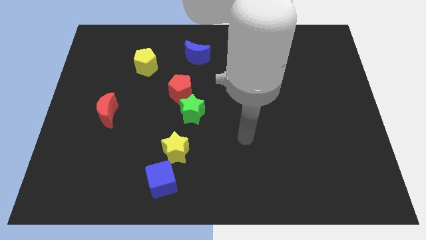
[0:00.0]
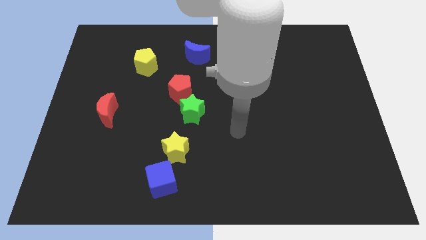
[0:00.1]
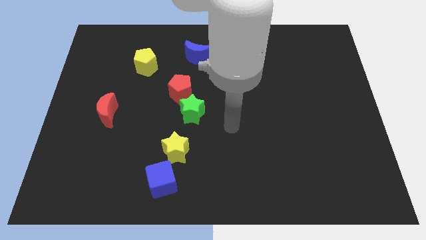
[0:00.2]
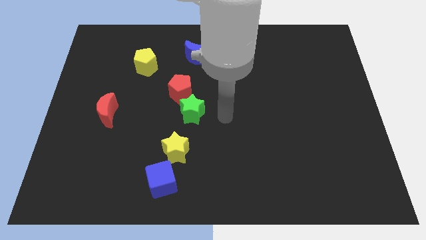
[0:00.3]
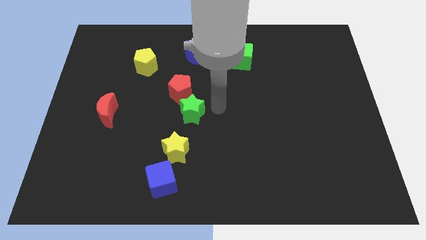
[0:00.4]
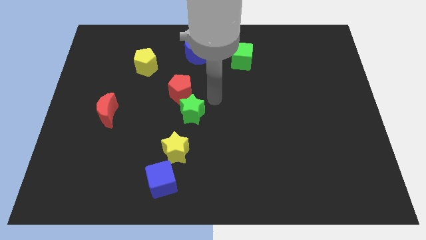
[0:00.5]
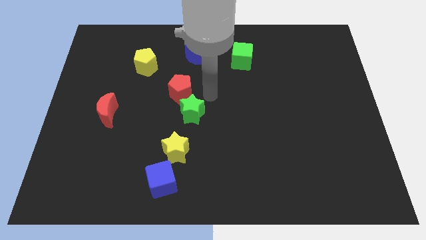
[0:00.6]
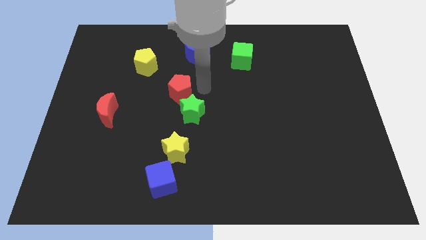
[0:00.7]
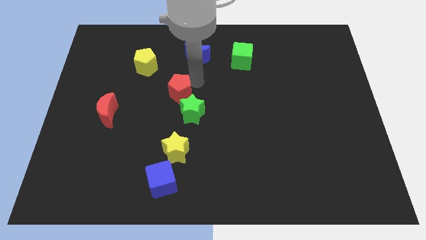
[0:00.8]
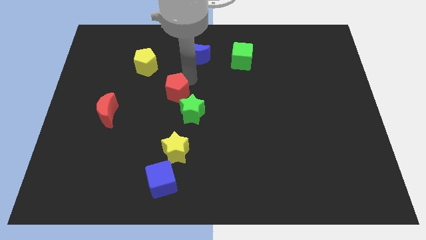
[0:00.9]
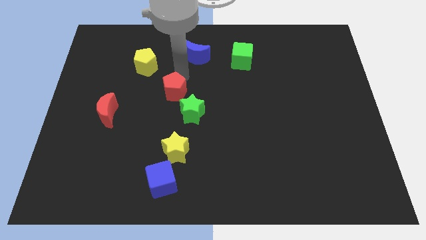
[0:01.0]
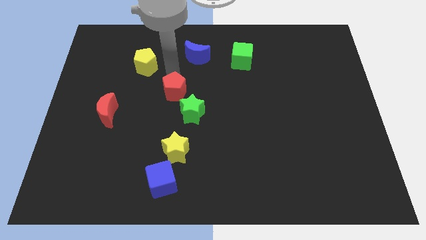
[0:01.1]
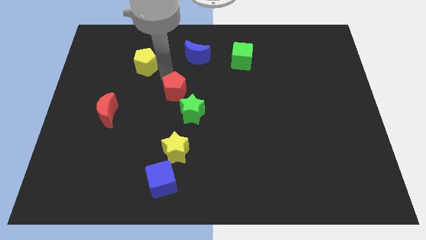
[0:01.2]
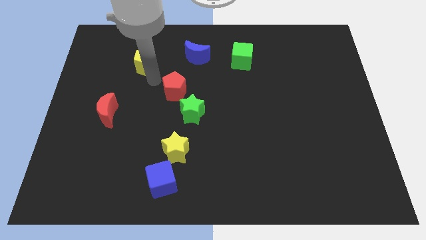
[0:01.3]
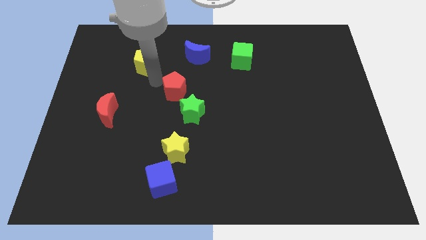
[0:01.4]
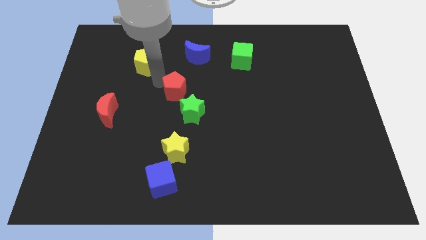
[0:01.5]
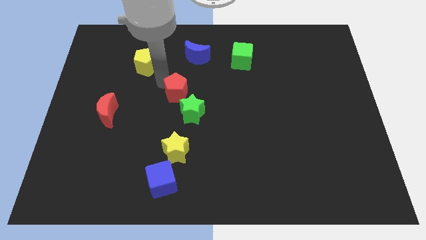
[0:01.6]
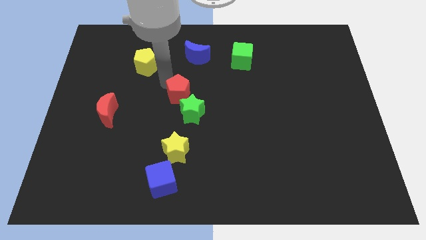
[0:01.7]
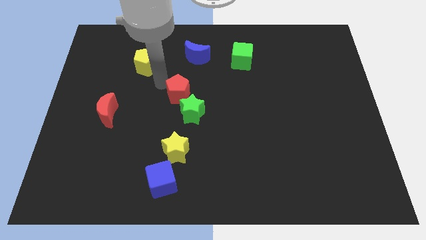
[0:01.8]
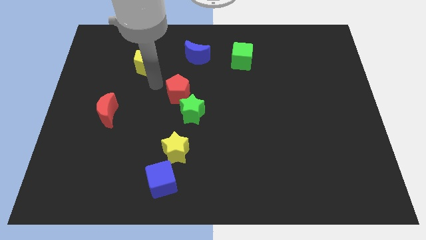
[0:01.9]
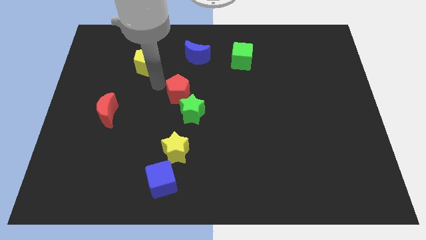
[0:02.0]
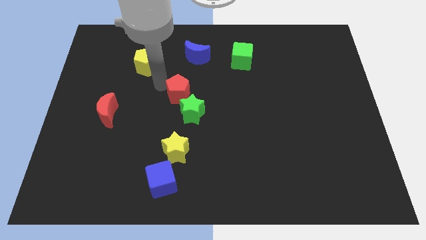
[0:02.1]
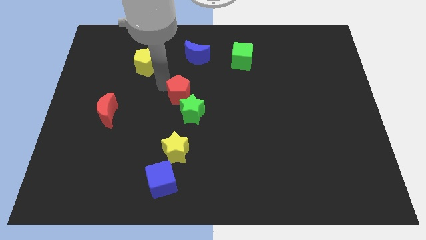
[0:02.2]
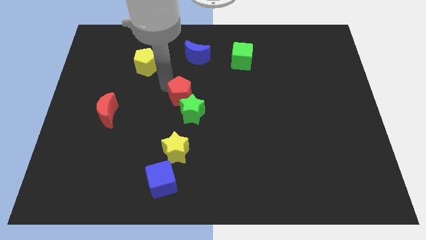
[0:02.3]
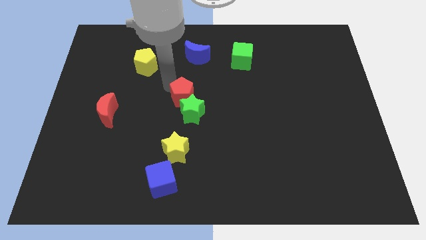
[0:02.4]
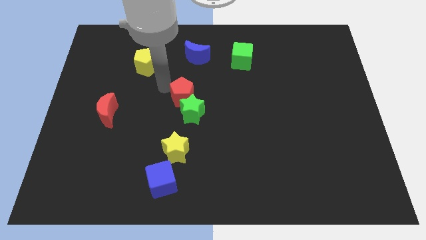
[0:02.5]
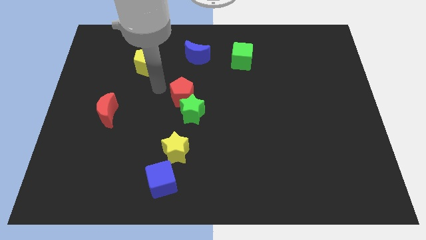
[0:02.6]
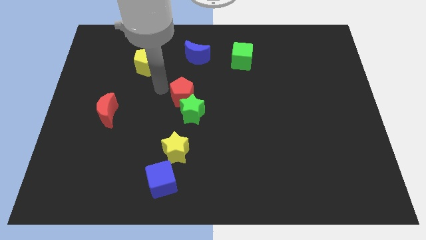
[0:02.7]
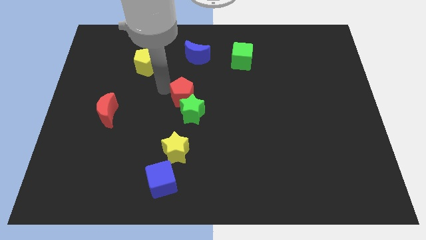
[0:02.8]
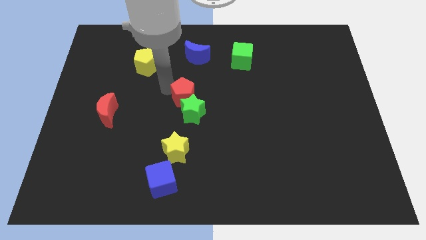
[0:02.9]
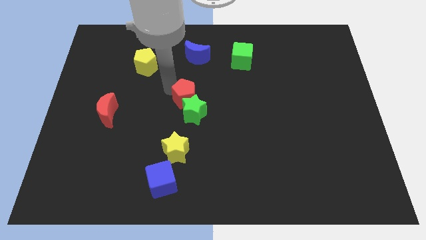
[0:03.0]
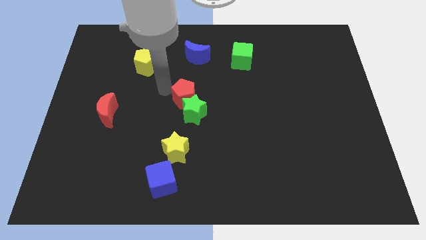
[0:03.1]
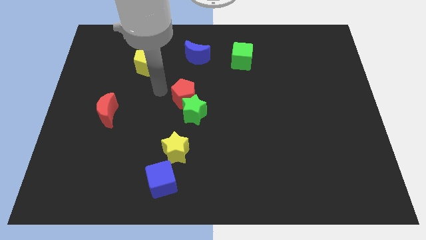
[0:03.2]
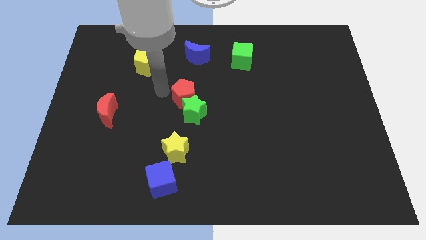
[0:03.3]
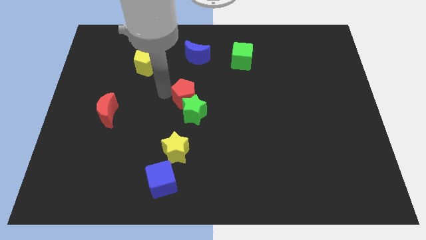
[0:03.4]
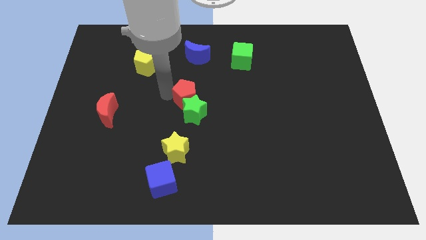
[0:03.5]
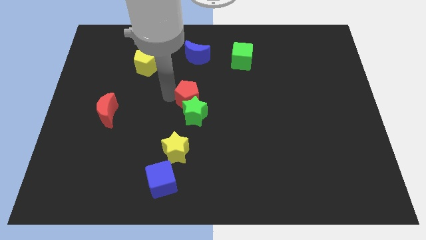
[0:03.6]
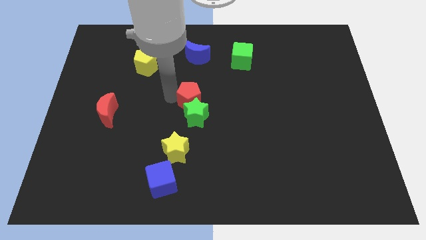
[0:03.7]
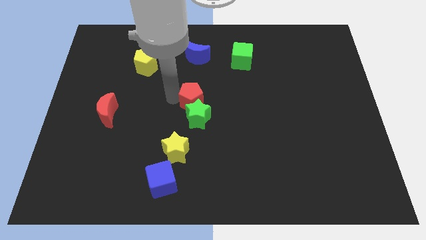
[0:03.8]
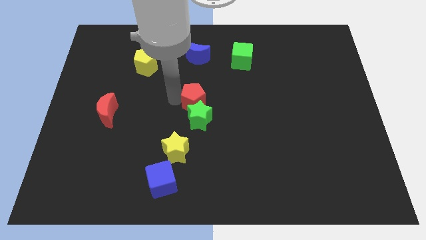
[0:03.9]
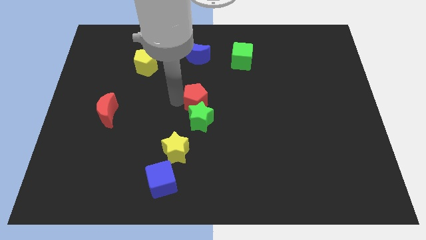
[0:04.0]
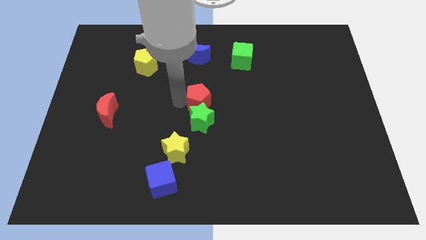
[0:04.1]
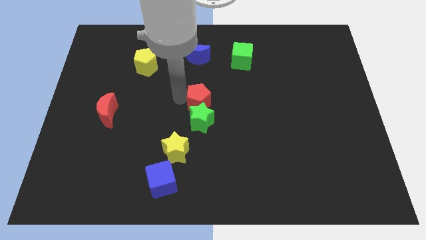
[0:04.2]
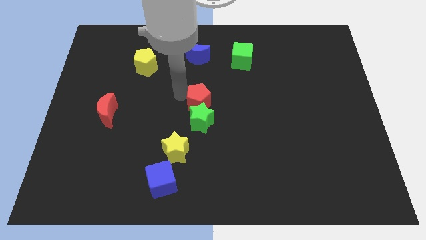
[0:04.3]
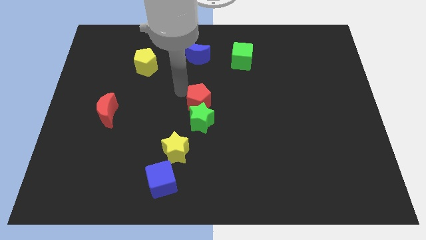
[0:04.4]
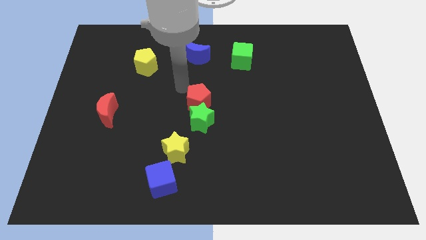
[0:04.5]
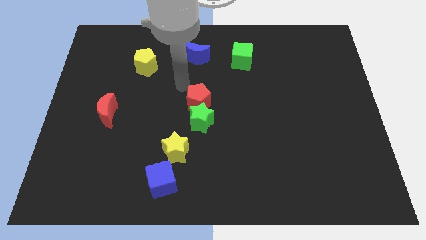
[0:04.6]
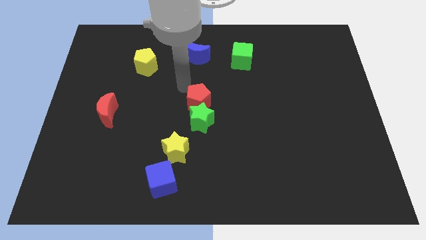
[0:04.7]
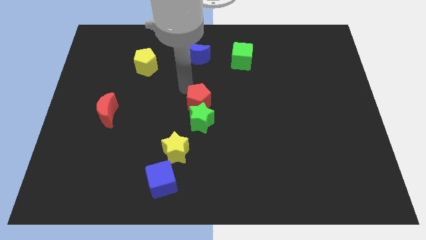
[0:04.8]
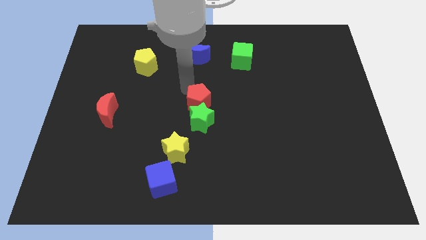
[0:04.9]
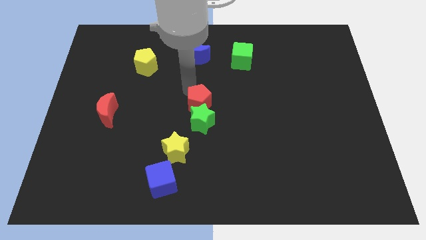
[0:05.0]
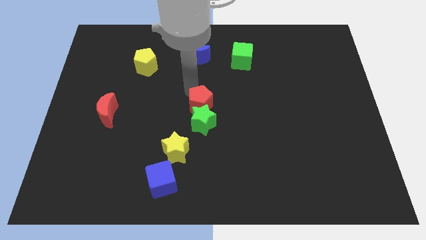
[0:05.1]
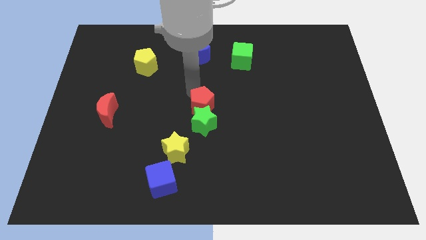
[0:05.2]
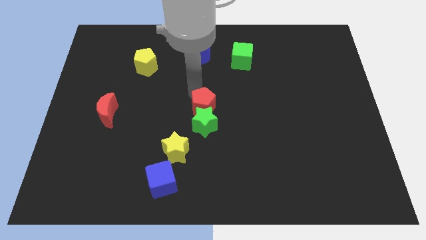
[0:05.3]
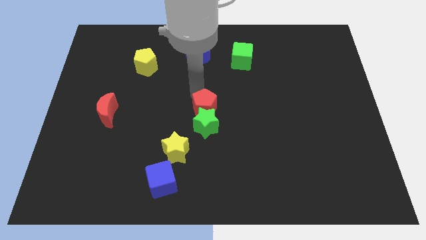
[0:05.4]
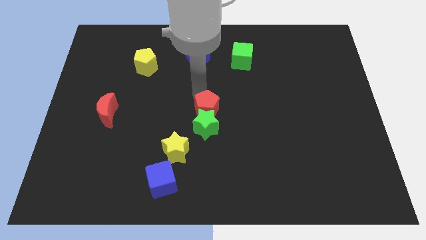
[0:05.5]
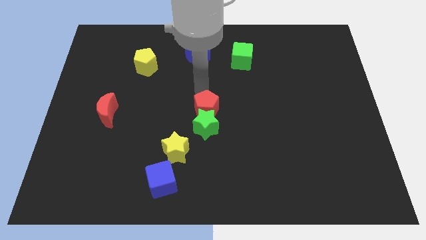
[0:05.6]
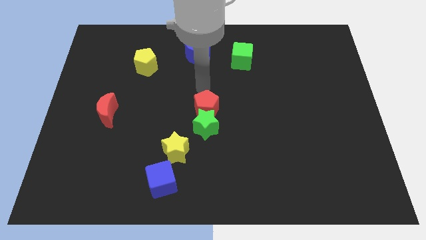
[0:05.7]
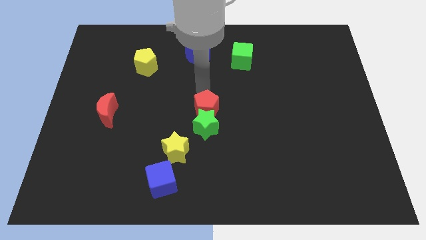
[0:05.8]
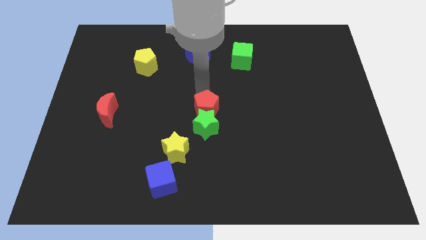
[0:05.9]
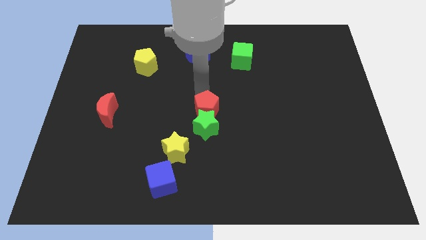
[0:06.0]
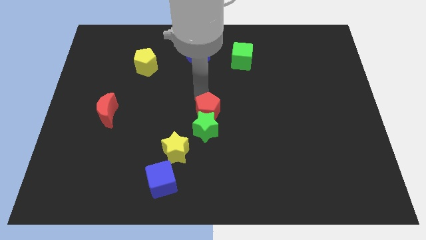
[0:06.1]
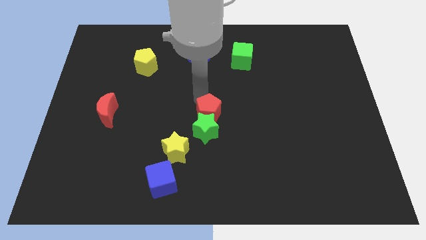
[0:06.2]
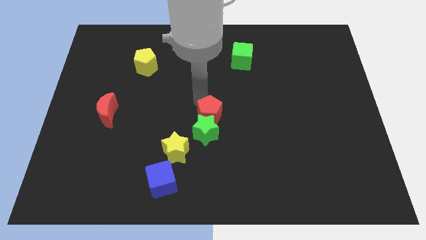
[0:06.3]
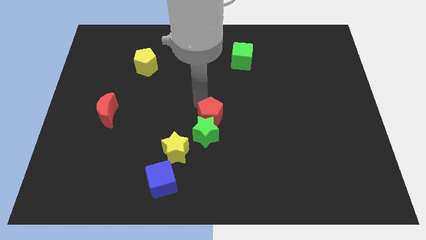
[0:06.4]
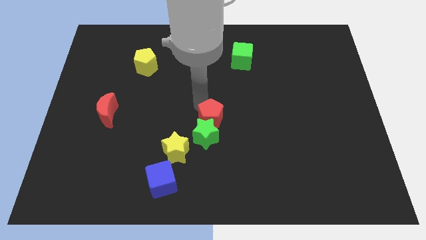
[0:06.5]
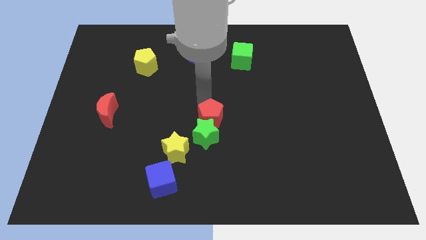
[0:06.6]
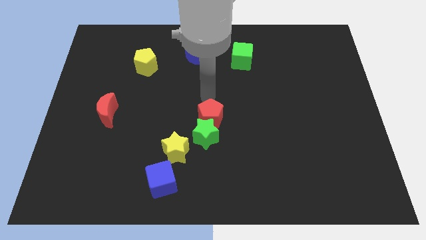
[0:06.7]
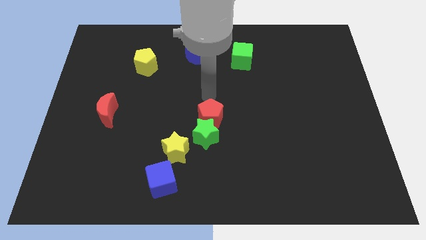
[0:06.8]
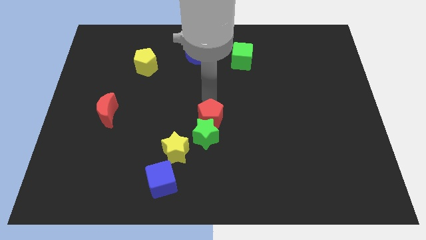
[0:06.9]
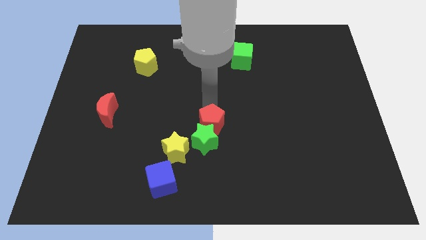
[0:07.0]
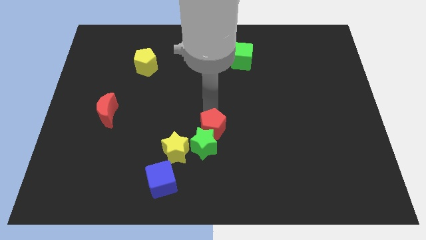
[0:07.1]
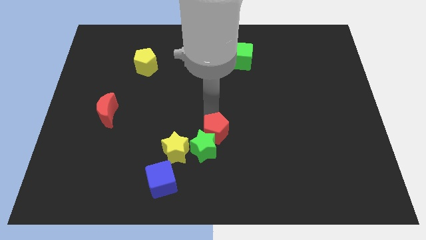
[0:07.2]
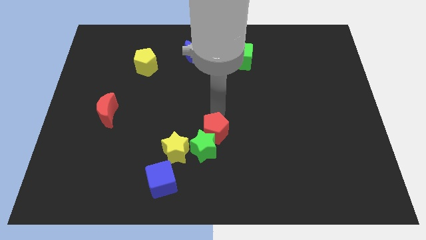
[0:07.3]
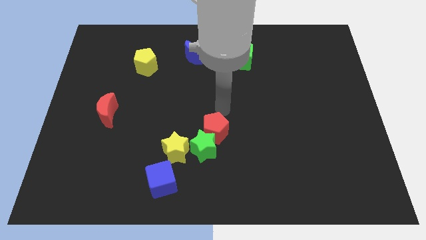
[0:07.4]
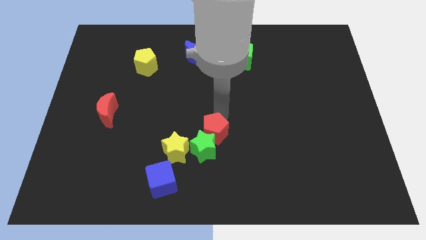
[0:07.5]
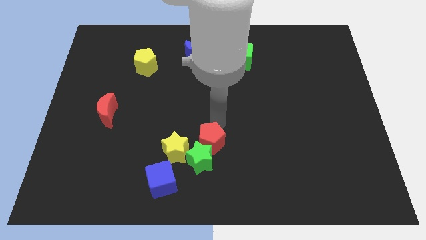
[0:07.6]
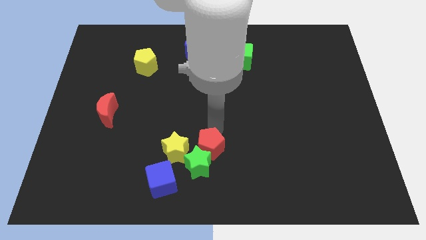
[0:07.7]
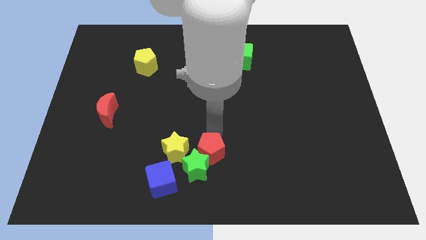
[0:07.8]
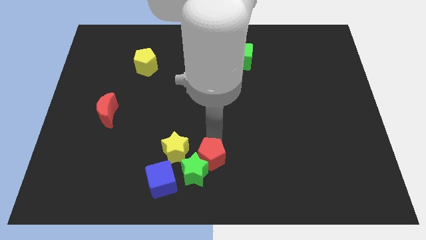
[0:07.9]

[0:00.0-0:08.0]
move the red pentagon to the bottom side
